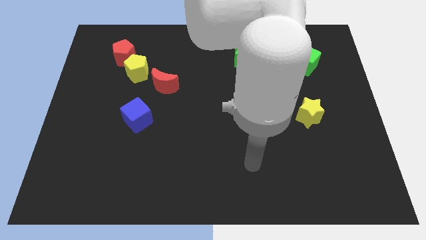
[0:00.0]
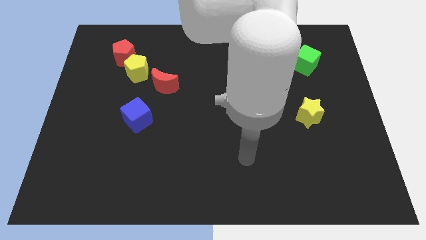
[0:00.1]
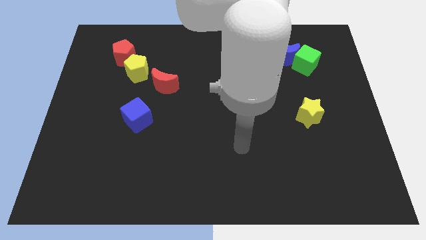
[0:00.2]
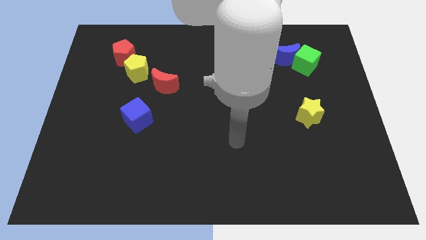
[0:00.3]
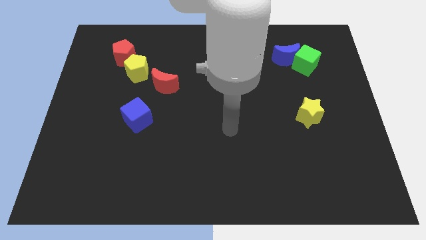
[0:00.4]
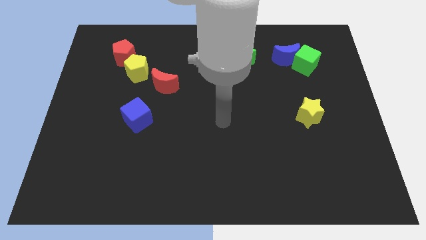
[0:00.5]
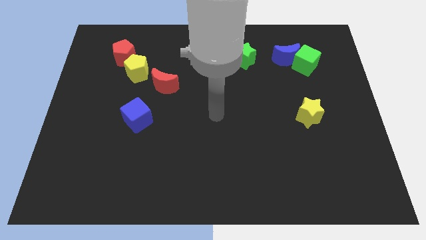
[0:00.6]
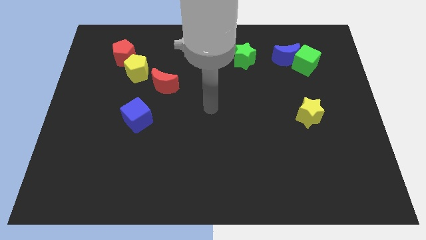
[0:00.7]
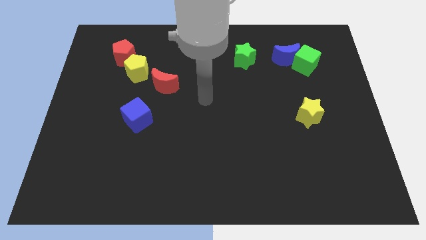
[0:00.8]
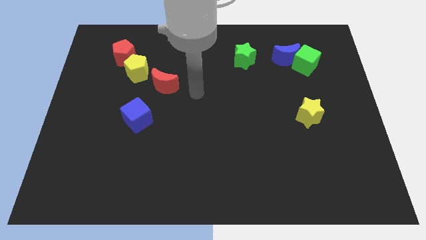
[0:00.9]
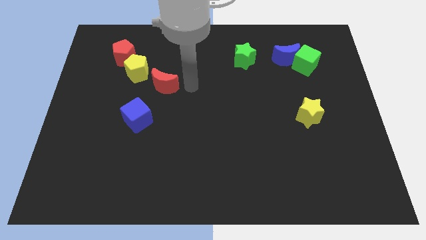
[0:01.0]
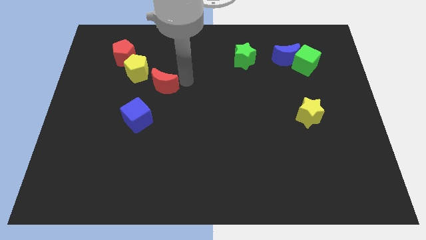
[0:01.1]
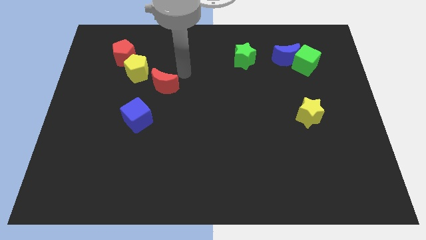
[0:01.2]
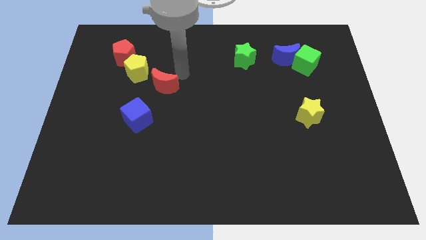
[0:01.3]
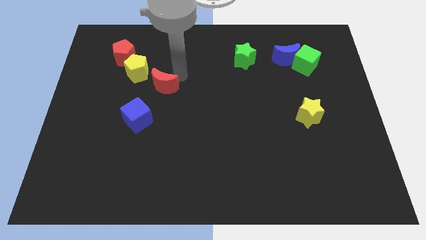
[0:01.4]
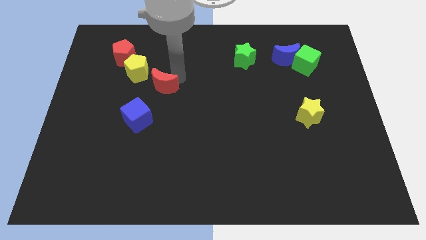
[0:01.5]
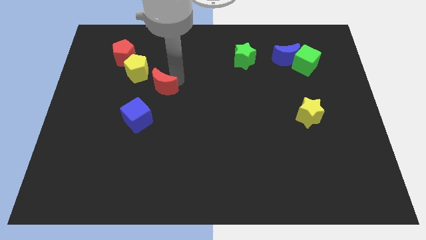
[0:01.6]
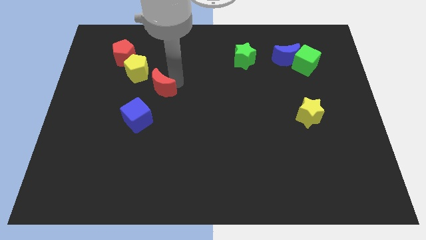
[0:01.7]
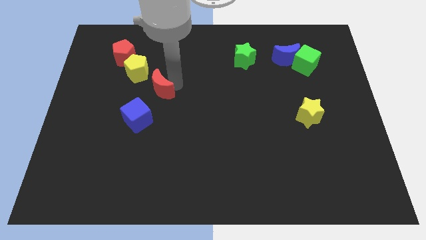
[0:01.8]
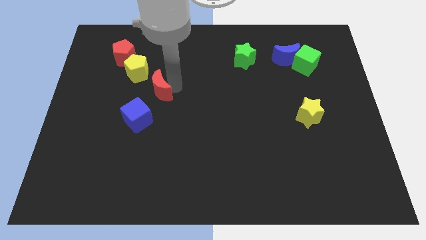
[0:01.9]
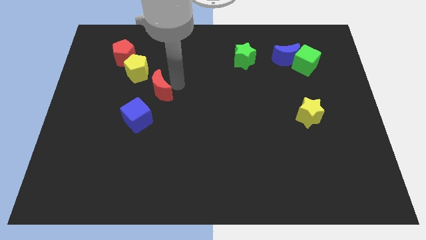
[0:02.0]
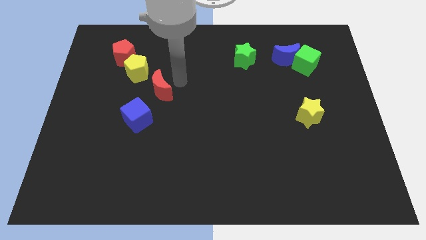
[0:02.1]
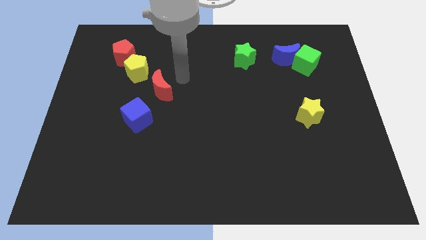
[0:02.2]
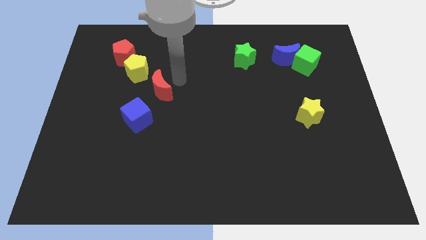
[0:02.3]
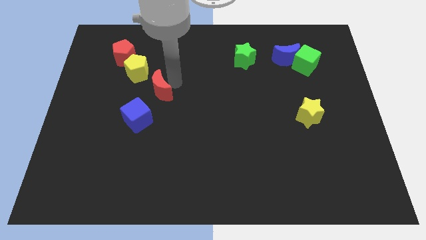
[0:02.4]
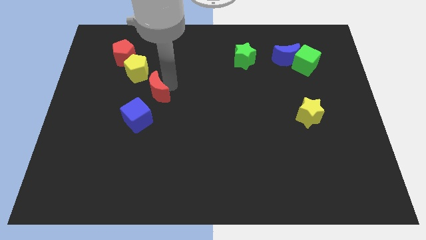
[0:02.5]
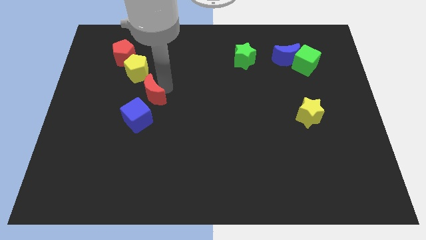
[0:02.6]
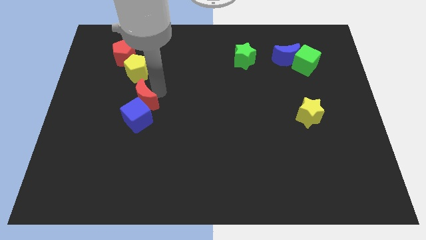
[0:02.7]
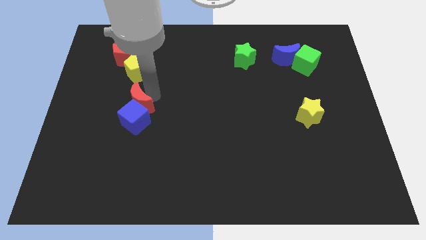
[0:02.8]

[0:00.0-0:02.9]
slide the red moon diagonally down and to the left a bit

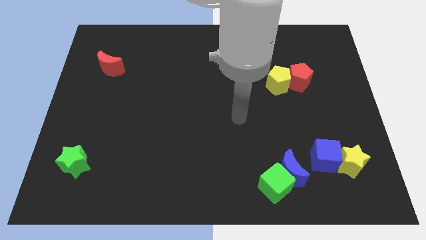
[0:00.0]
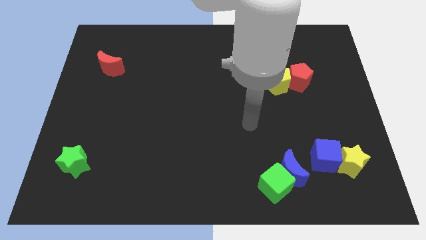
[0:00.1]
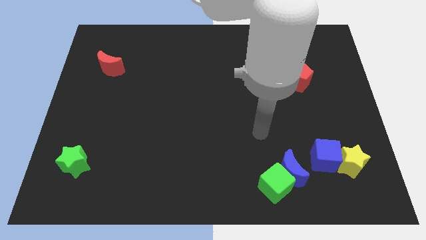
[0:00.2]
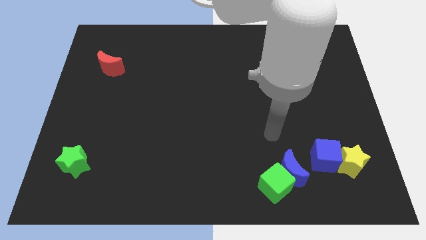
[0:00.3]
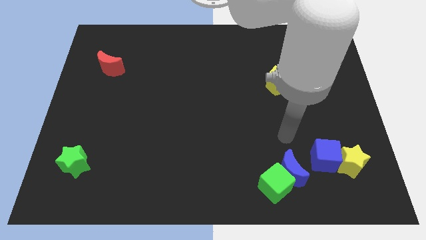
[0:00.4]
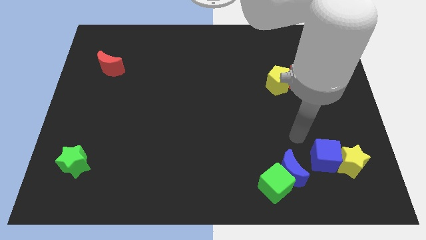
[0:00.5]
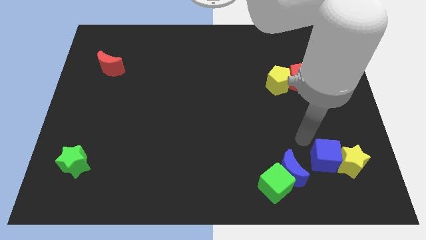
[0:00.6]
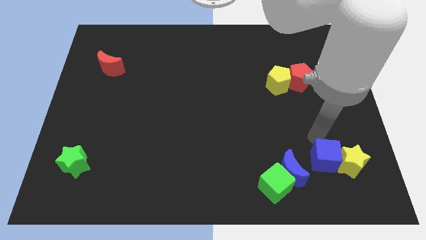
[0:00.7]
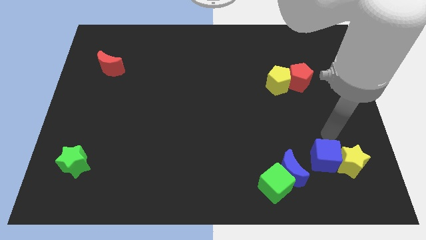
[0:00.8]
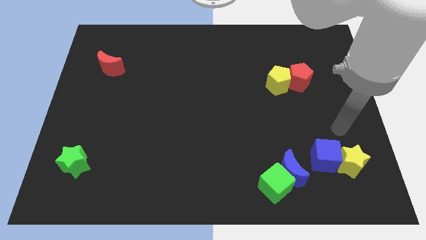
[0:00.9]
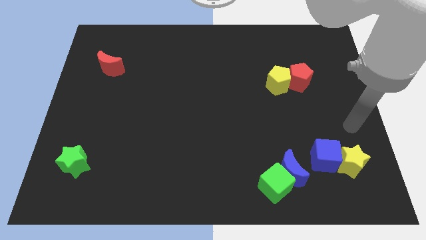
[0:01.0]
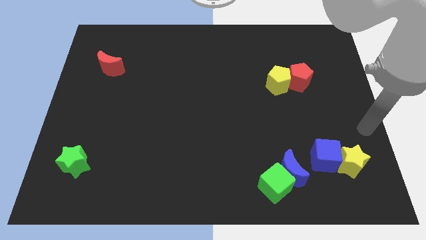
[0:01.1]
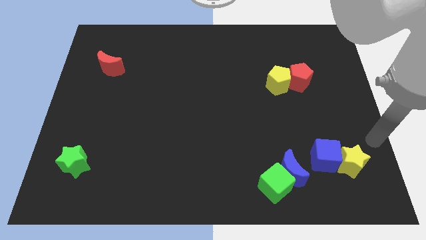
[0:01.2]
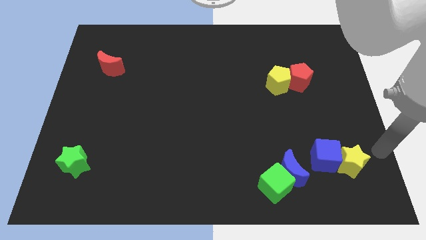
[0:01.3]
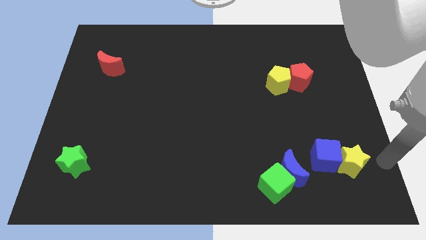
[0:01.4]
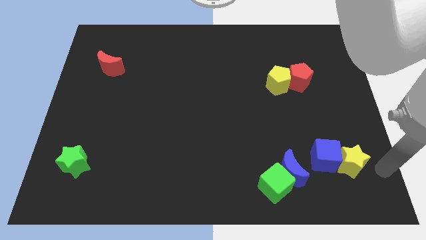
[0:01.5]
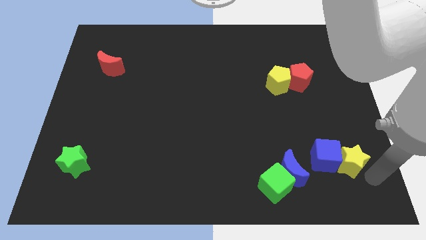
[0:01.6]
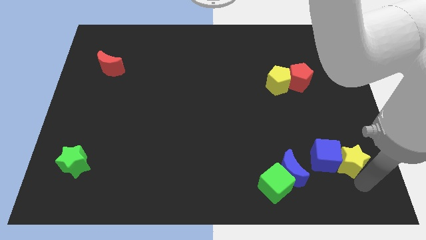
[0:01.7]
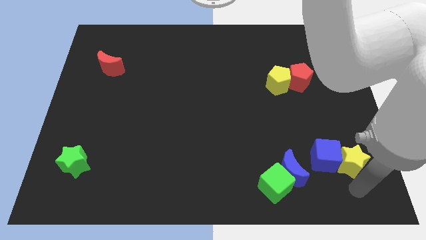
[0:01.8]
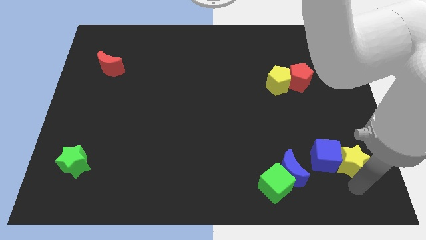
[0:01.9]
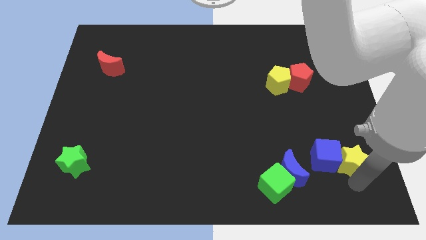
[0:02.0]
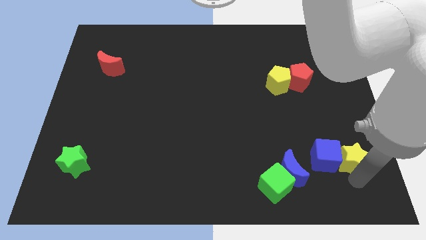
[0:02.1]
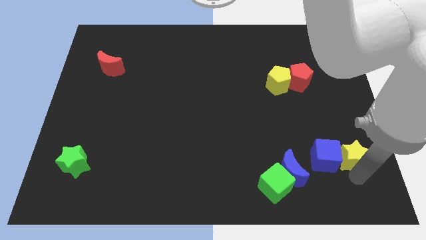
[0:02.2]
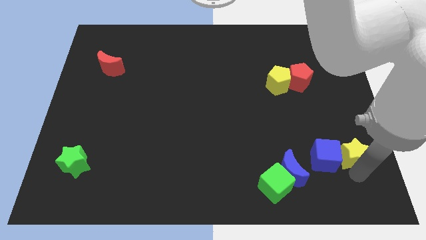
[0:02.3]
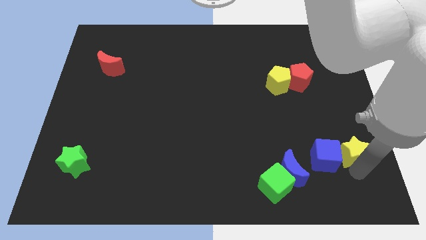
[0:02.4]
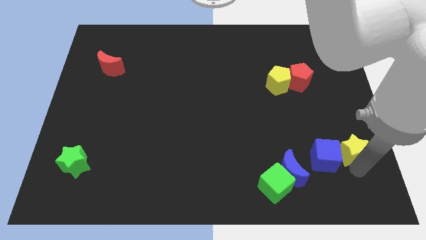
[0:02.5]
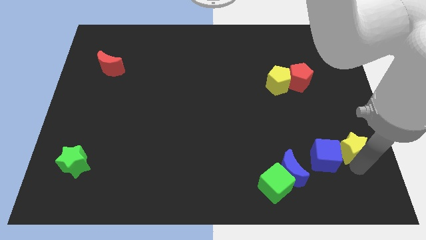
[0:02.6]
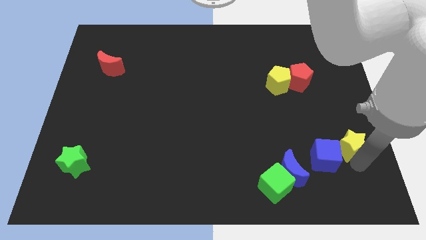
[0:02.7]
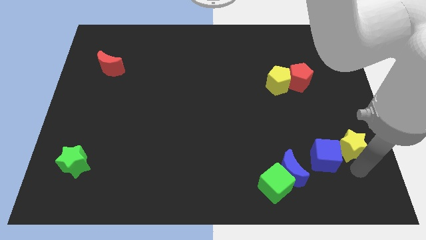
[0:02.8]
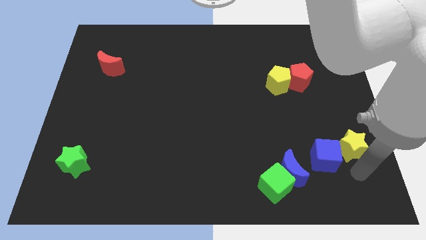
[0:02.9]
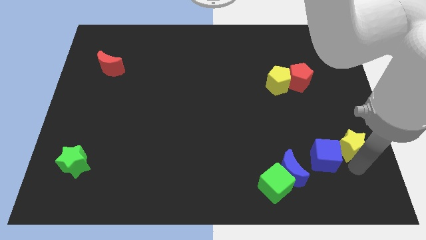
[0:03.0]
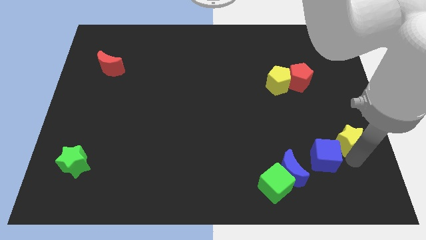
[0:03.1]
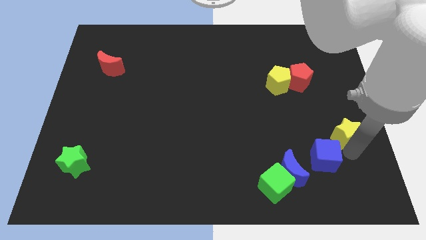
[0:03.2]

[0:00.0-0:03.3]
push the yellow star a little upwards

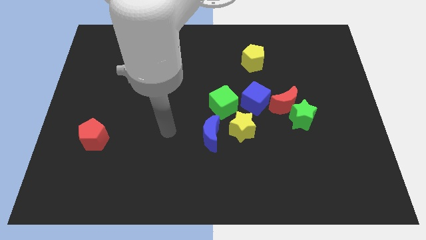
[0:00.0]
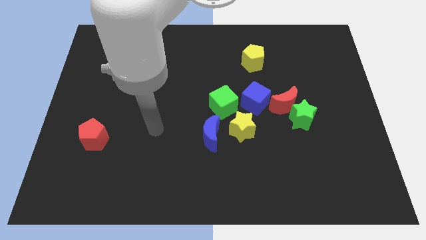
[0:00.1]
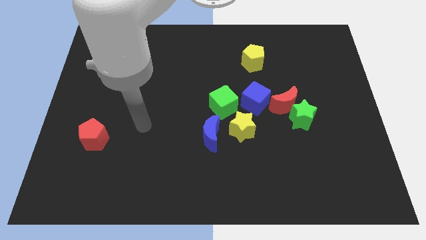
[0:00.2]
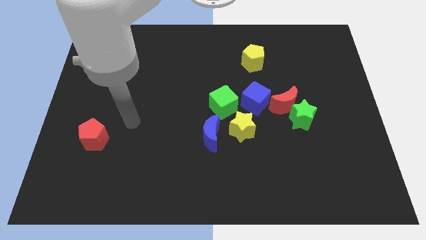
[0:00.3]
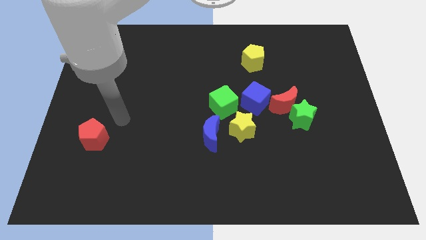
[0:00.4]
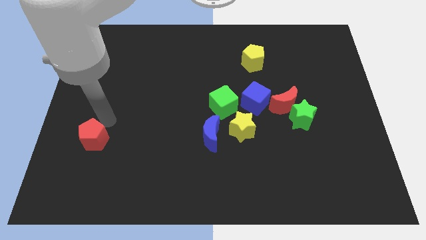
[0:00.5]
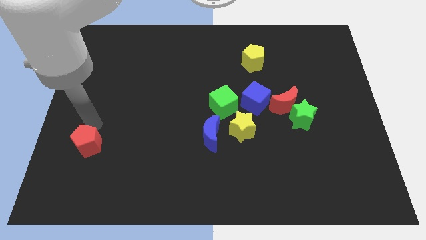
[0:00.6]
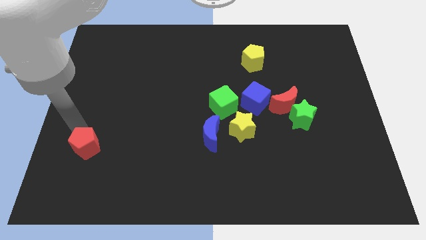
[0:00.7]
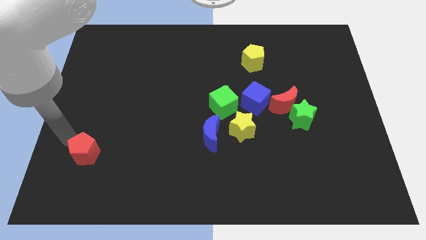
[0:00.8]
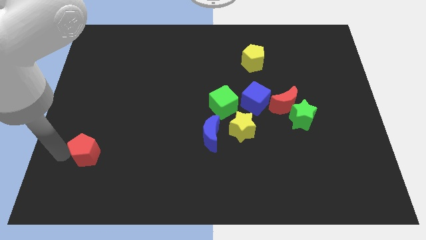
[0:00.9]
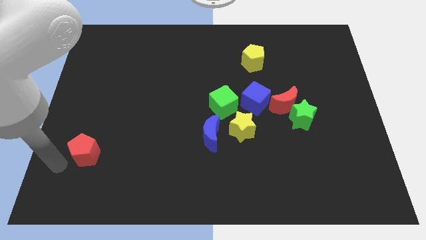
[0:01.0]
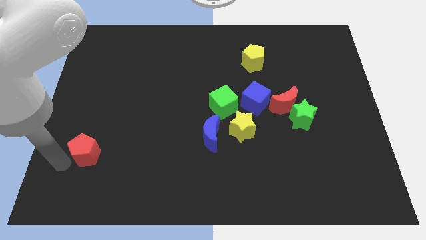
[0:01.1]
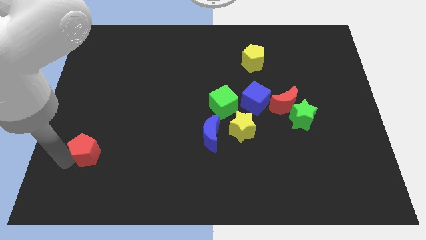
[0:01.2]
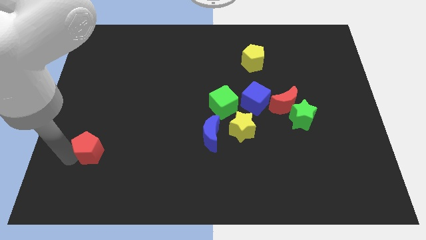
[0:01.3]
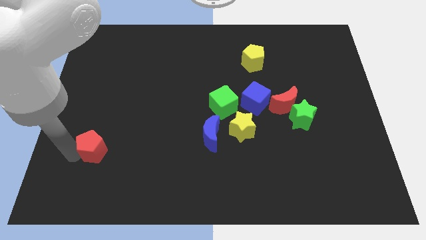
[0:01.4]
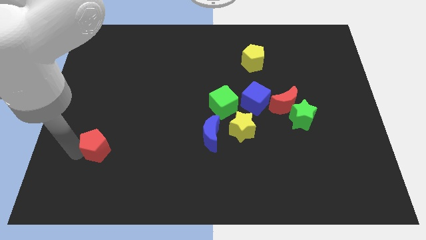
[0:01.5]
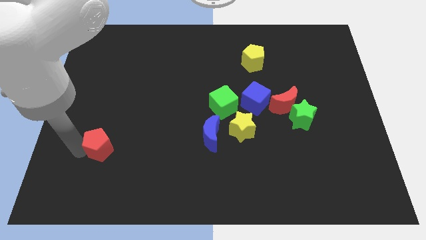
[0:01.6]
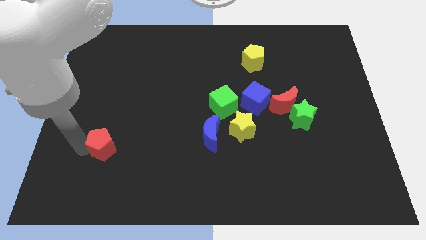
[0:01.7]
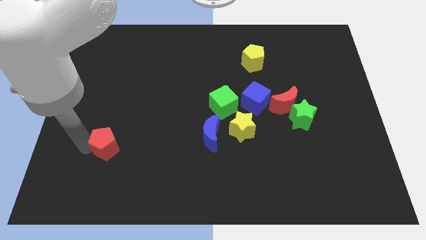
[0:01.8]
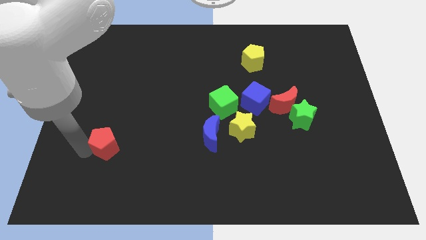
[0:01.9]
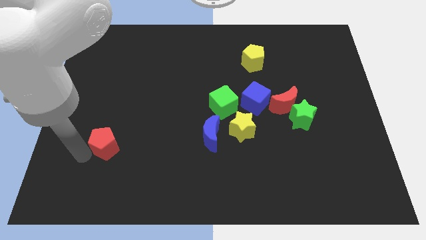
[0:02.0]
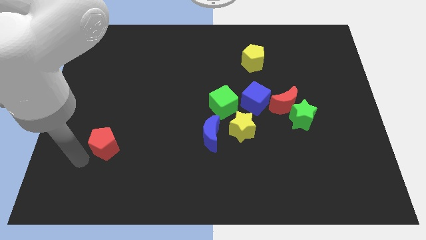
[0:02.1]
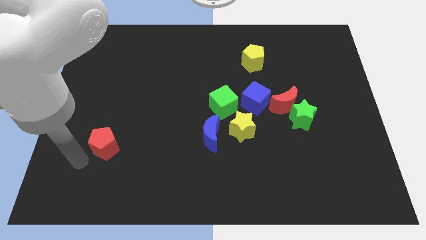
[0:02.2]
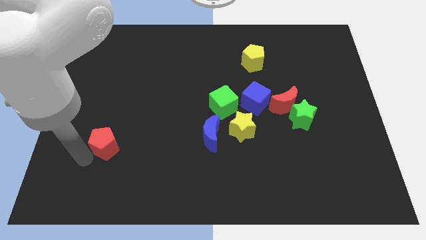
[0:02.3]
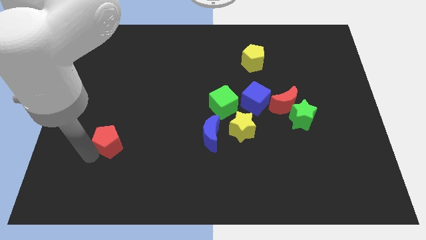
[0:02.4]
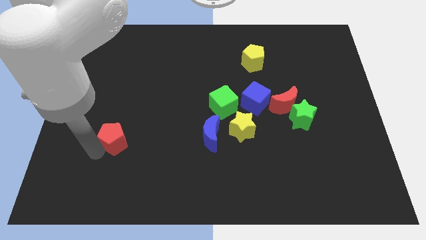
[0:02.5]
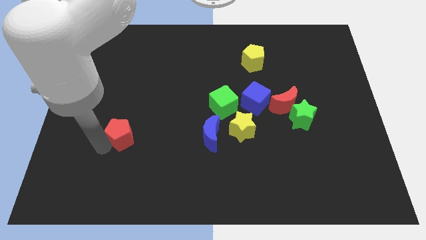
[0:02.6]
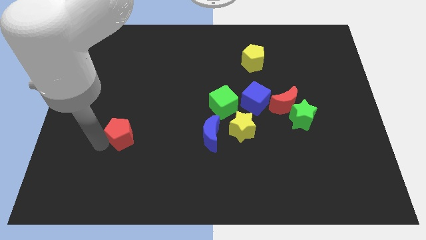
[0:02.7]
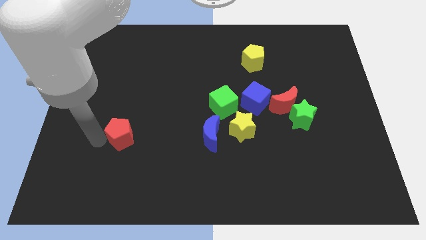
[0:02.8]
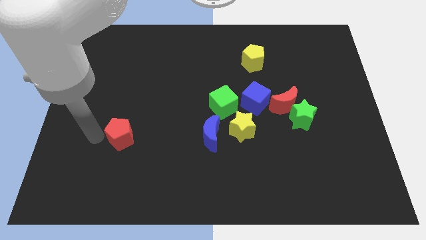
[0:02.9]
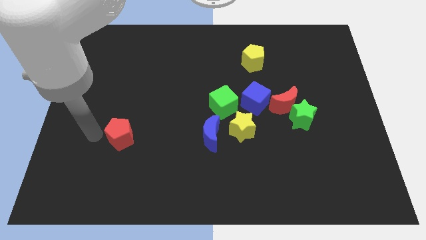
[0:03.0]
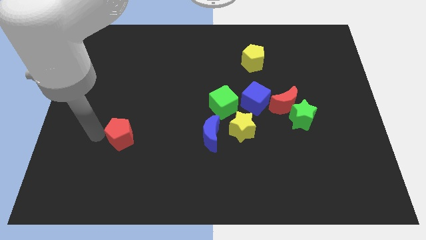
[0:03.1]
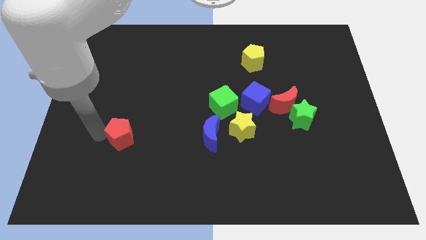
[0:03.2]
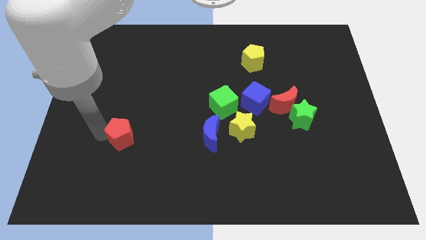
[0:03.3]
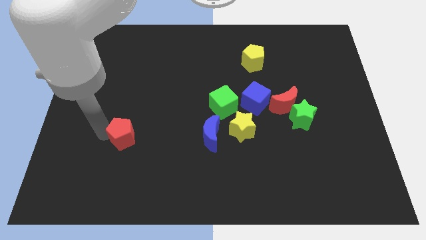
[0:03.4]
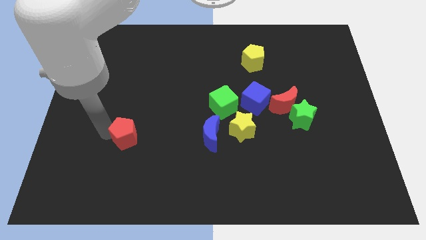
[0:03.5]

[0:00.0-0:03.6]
push the red pentagon right slightly
